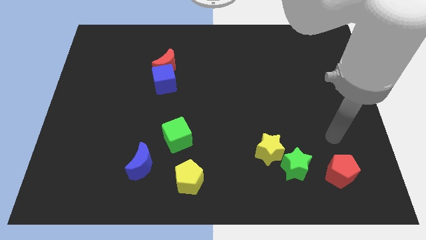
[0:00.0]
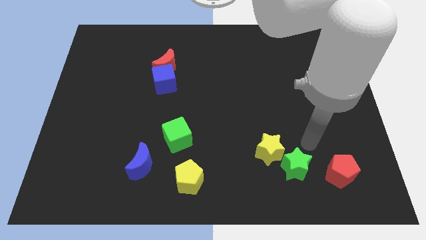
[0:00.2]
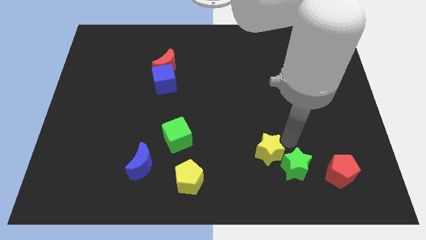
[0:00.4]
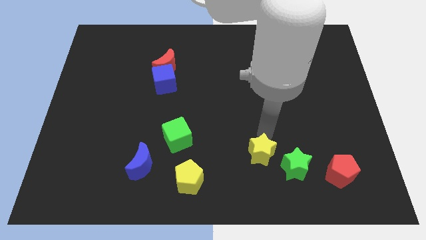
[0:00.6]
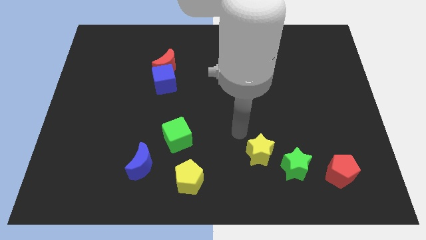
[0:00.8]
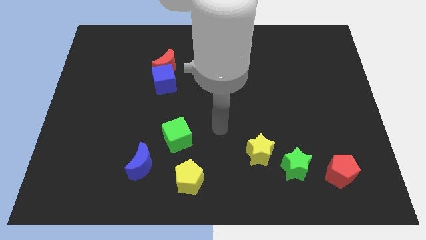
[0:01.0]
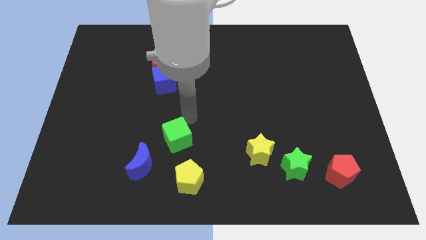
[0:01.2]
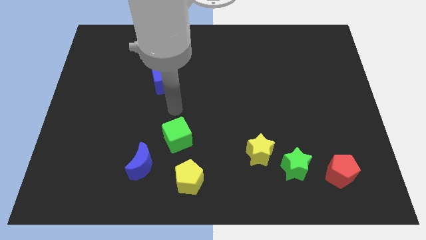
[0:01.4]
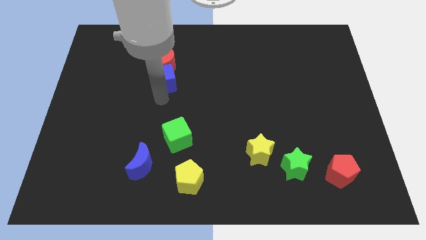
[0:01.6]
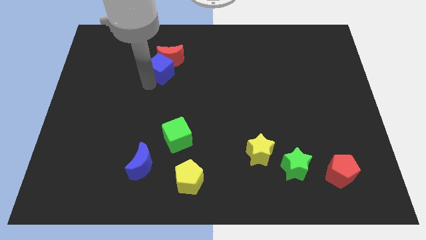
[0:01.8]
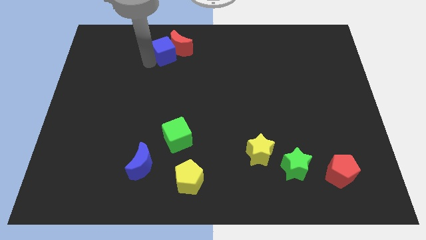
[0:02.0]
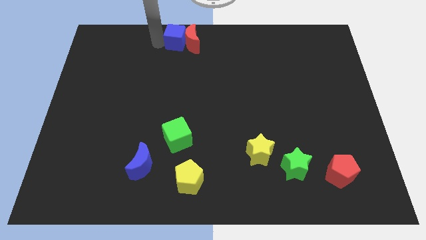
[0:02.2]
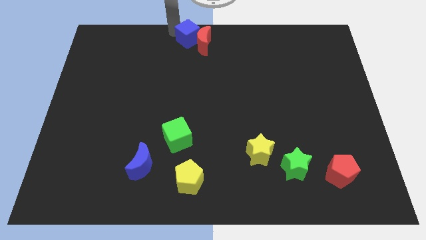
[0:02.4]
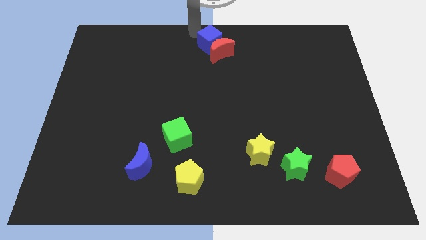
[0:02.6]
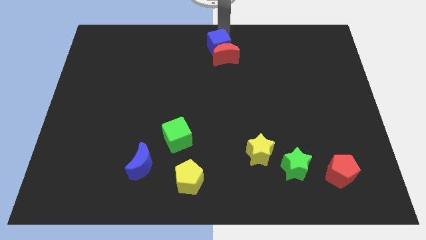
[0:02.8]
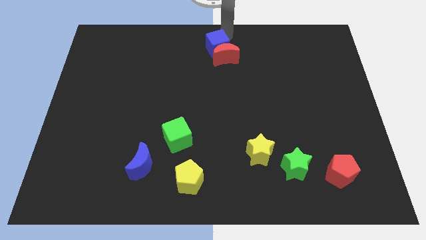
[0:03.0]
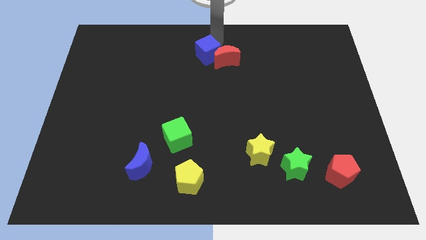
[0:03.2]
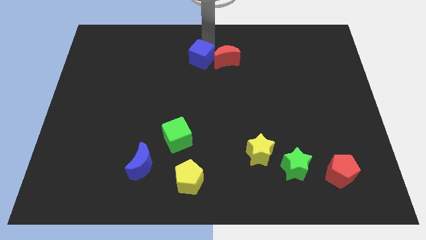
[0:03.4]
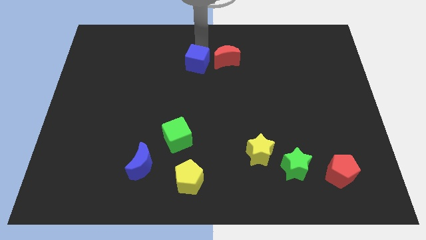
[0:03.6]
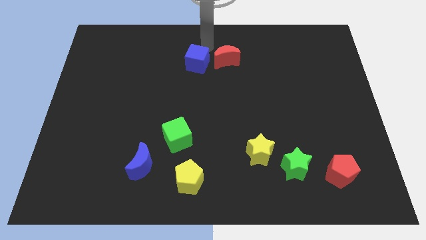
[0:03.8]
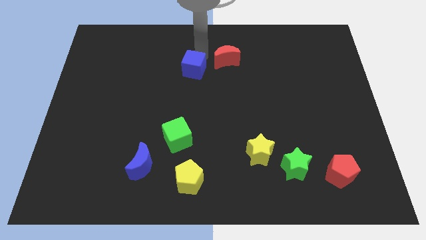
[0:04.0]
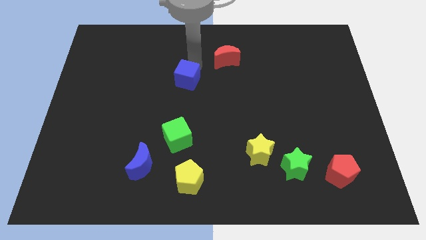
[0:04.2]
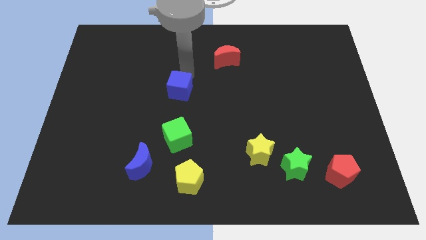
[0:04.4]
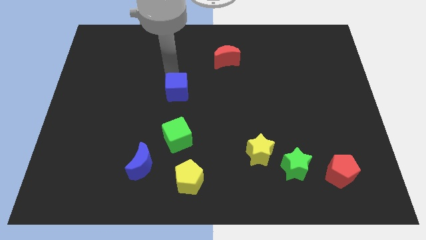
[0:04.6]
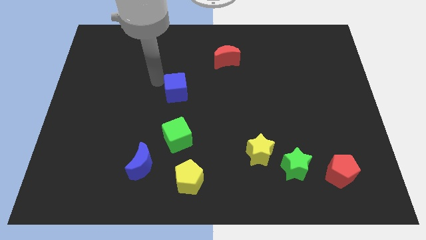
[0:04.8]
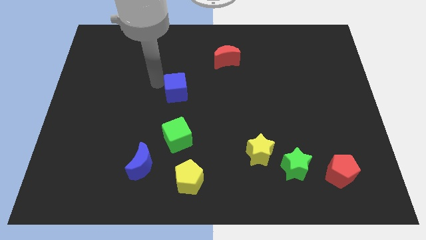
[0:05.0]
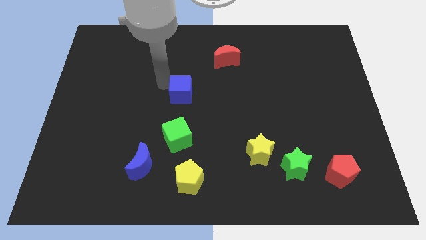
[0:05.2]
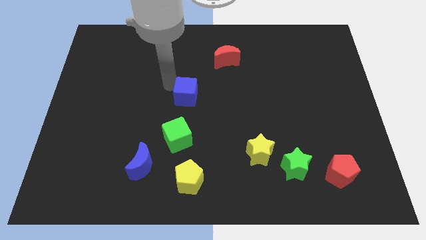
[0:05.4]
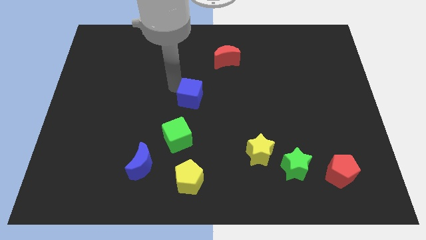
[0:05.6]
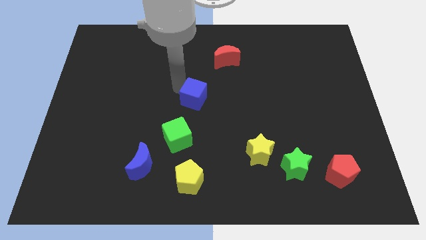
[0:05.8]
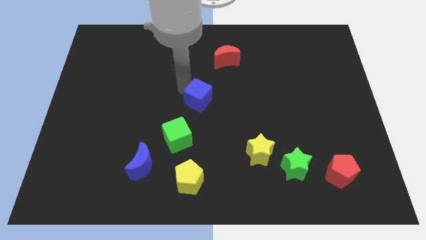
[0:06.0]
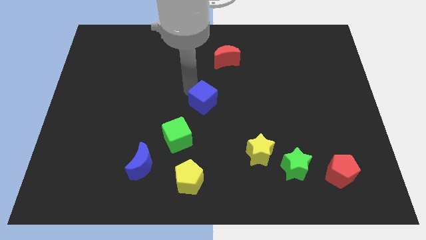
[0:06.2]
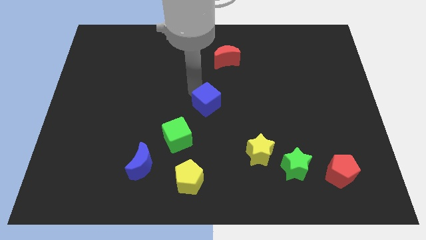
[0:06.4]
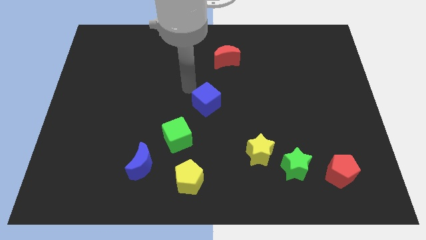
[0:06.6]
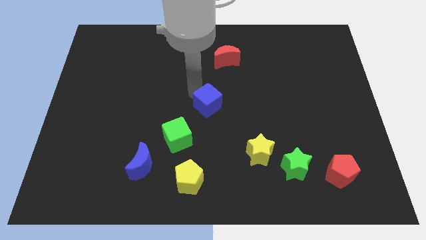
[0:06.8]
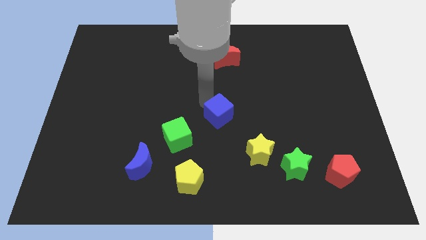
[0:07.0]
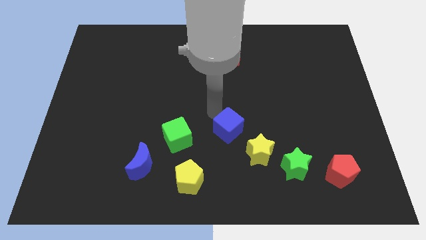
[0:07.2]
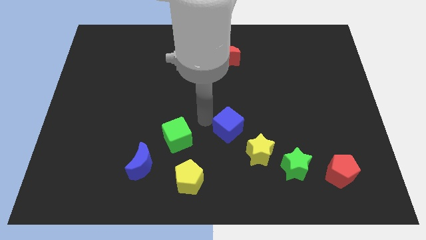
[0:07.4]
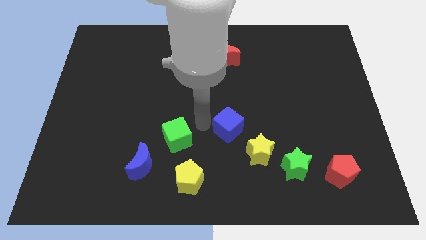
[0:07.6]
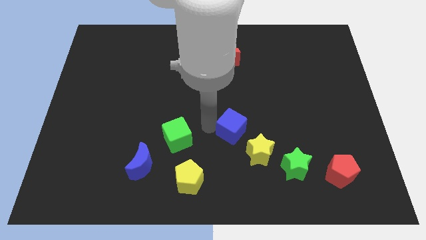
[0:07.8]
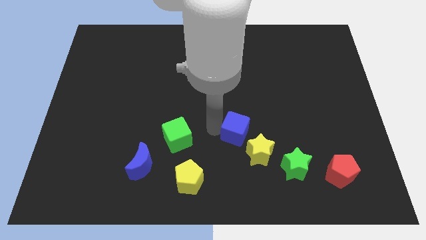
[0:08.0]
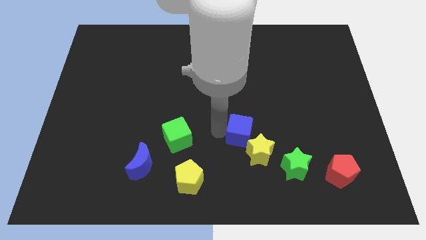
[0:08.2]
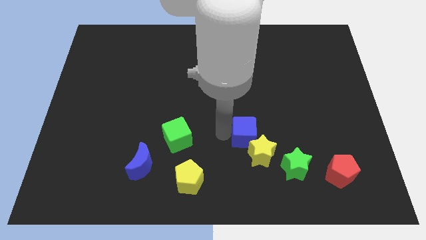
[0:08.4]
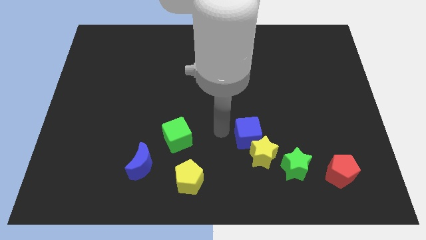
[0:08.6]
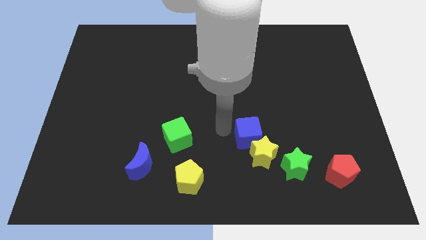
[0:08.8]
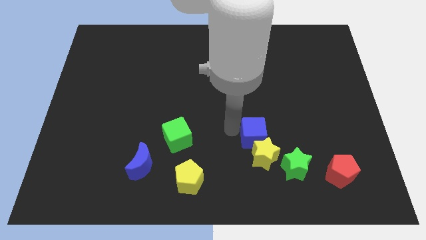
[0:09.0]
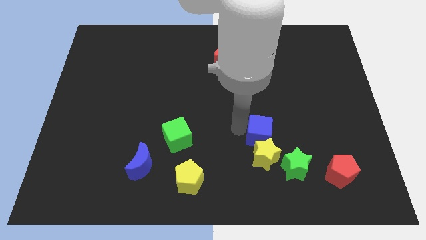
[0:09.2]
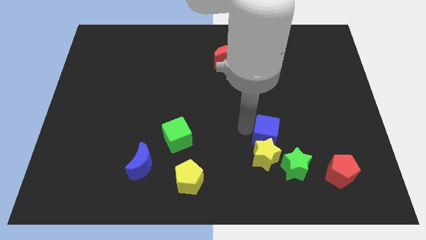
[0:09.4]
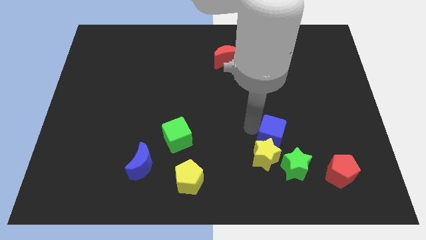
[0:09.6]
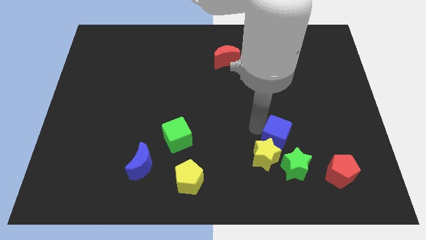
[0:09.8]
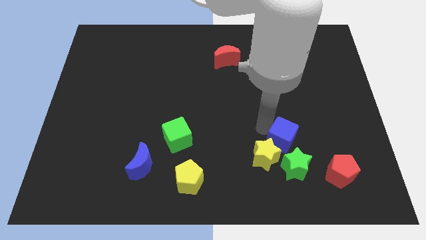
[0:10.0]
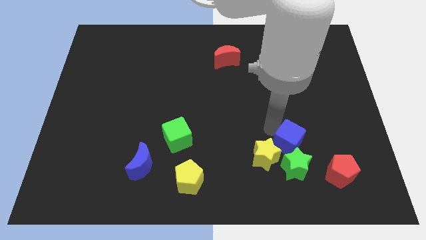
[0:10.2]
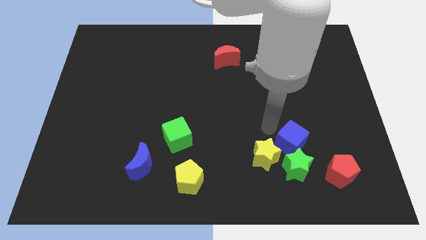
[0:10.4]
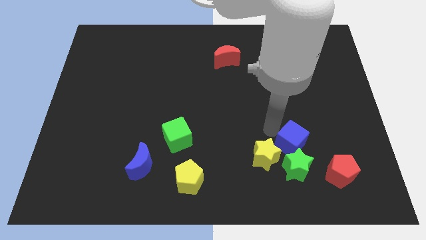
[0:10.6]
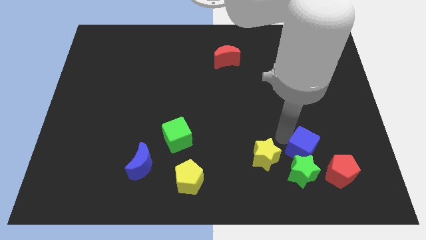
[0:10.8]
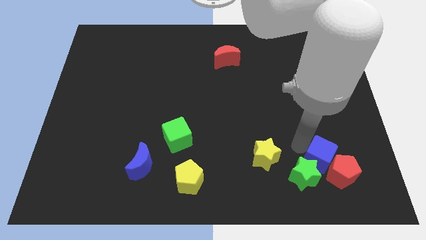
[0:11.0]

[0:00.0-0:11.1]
slide the blue cube towards the red pentagon

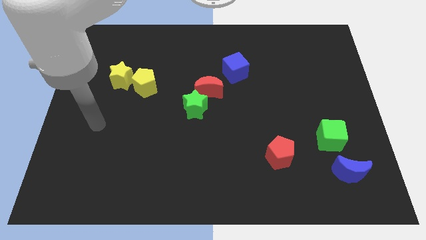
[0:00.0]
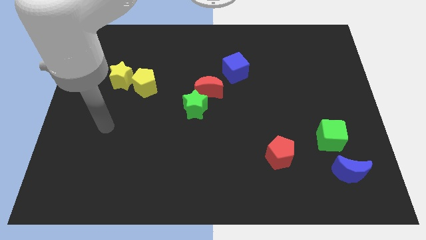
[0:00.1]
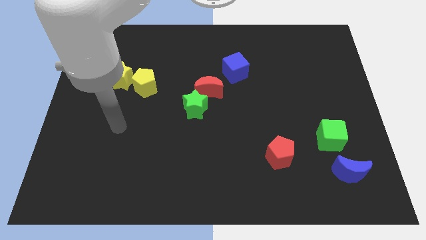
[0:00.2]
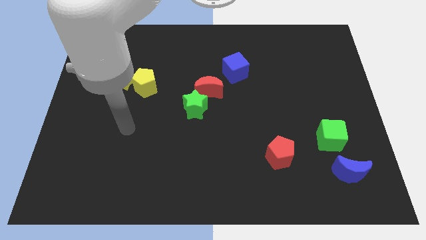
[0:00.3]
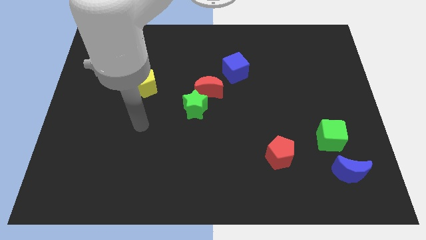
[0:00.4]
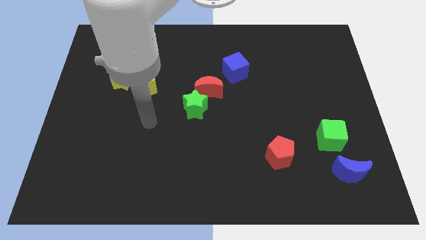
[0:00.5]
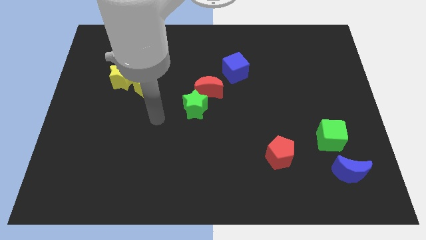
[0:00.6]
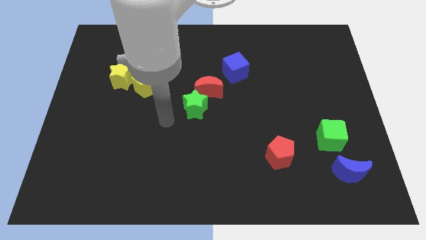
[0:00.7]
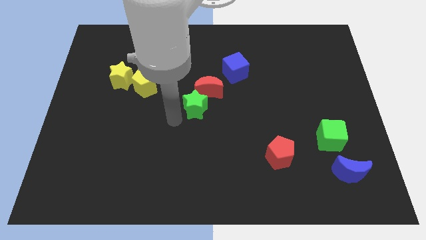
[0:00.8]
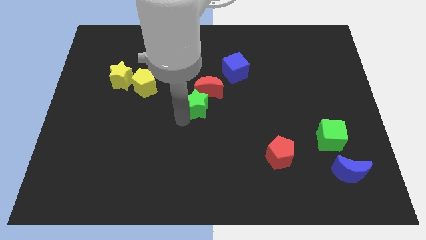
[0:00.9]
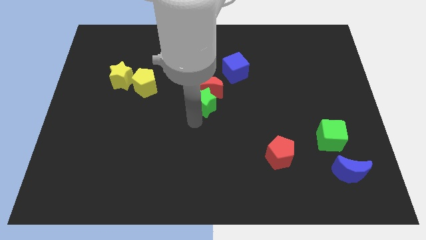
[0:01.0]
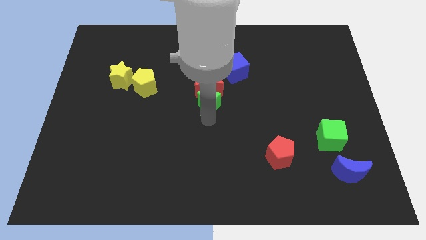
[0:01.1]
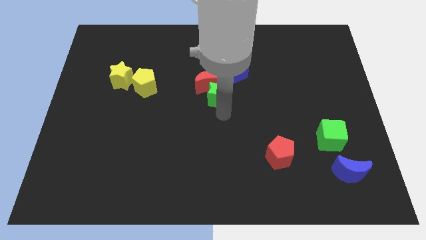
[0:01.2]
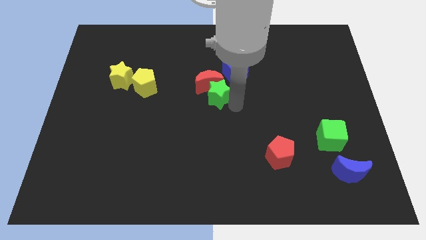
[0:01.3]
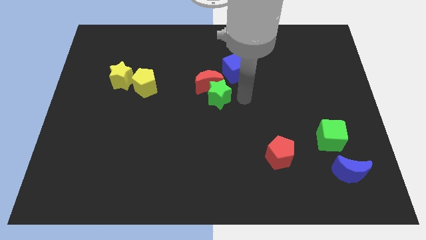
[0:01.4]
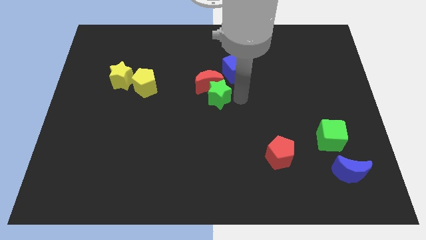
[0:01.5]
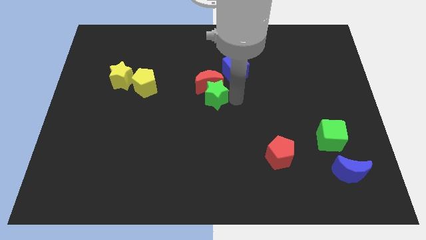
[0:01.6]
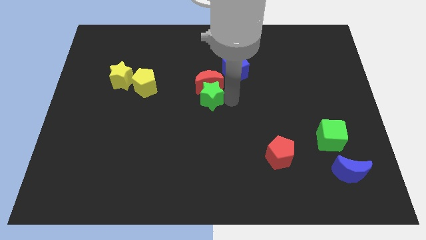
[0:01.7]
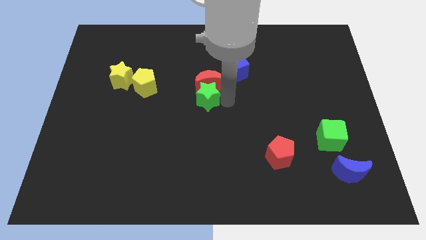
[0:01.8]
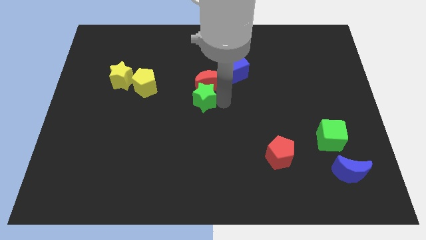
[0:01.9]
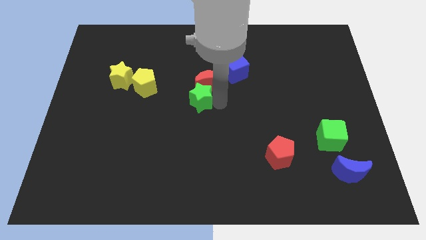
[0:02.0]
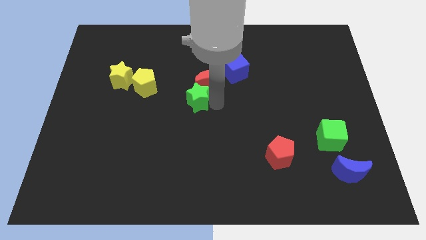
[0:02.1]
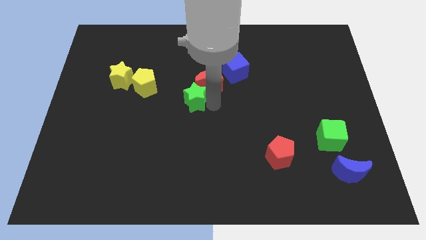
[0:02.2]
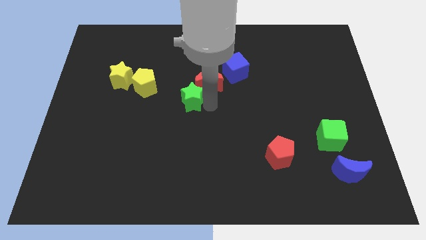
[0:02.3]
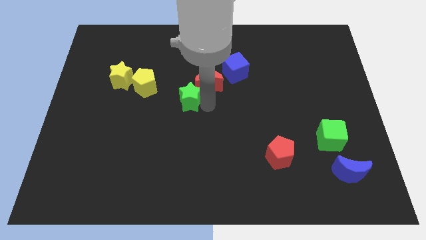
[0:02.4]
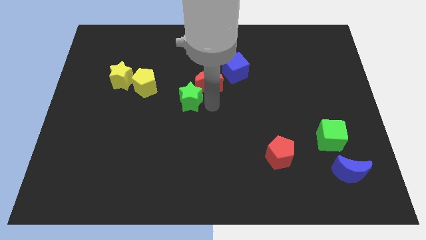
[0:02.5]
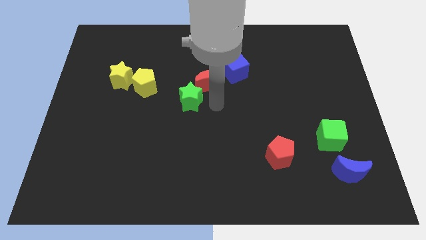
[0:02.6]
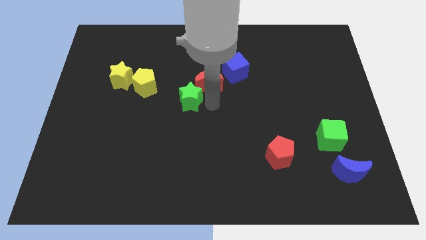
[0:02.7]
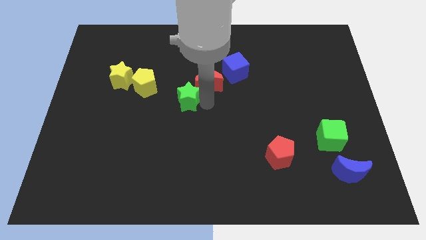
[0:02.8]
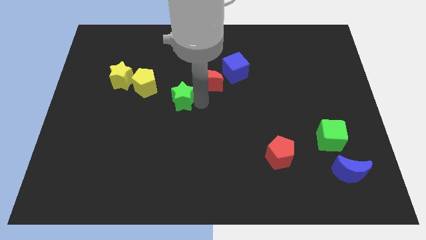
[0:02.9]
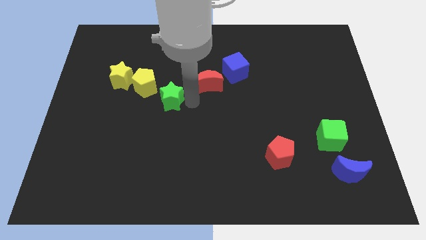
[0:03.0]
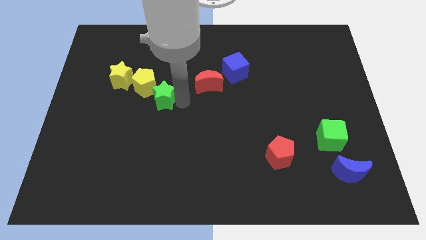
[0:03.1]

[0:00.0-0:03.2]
move the green star to the yellow pentagon
